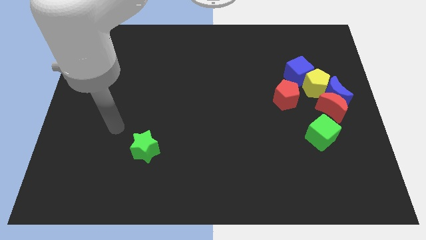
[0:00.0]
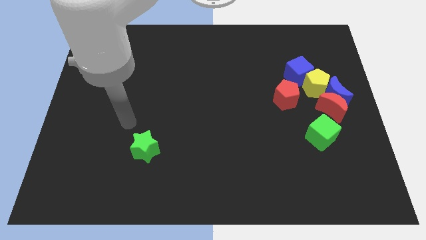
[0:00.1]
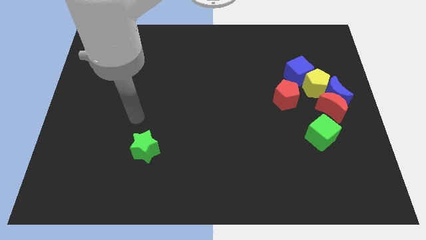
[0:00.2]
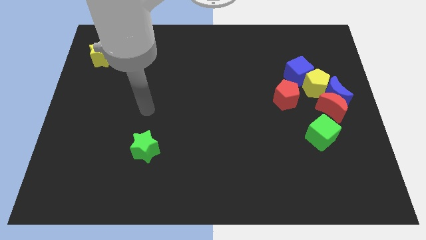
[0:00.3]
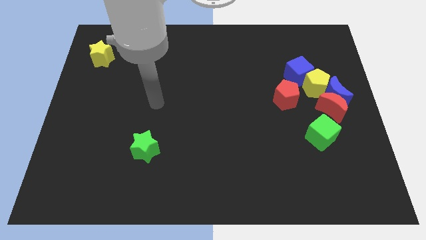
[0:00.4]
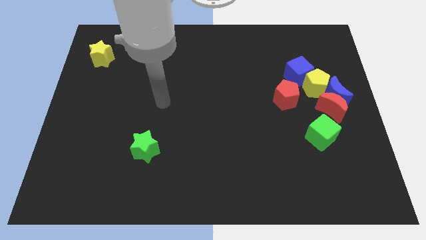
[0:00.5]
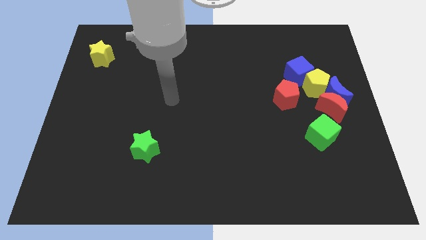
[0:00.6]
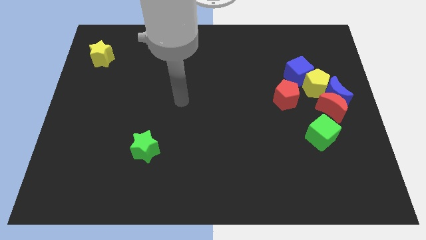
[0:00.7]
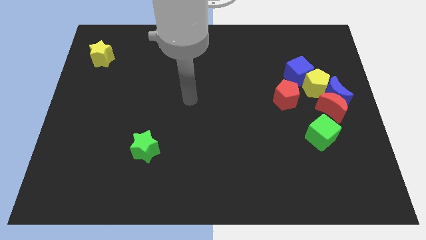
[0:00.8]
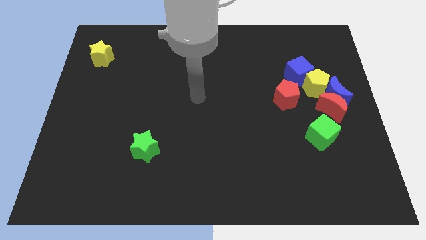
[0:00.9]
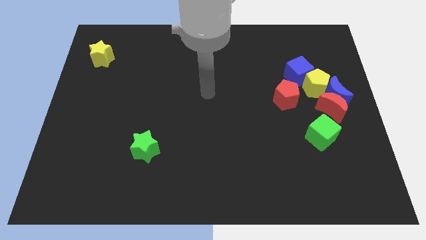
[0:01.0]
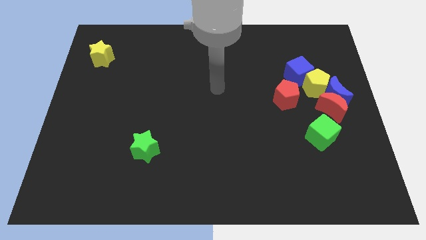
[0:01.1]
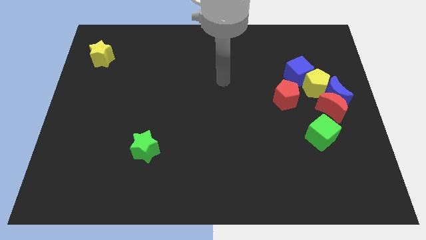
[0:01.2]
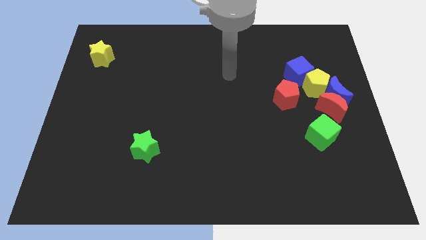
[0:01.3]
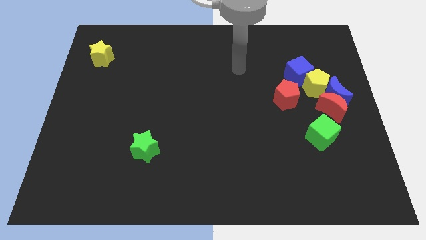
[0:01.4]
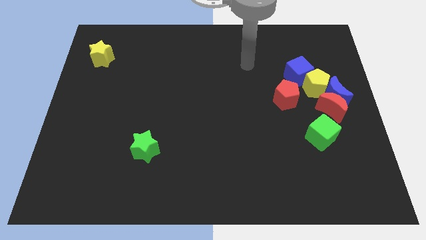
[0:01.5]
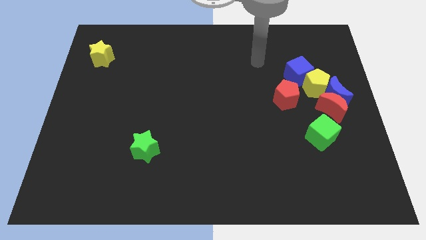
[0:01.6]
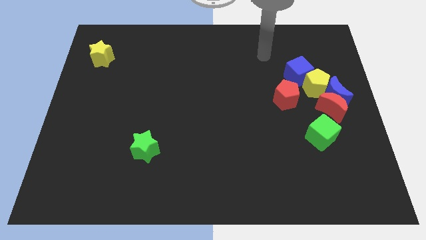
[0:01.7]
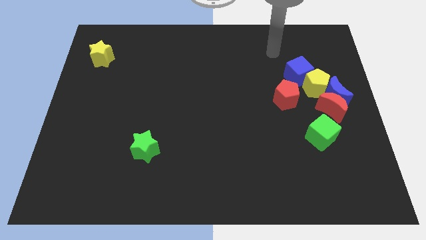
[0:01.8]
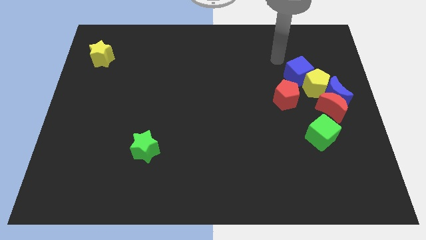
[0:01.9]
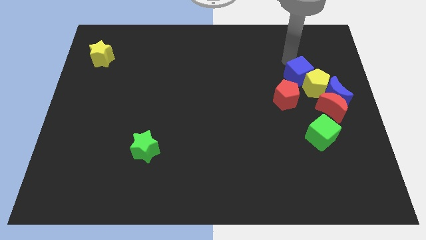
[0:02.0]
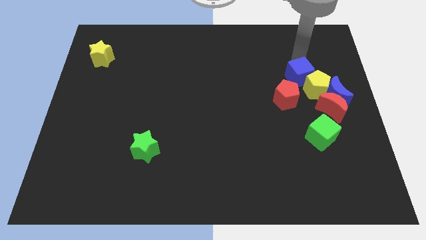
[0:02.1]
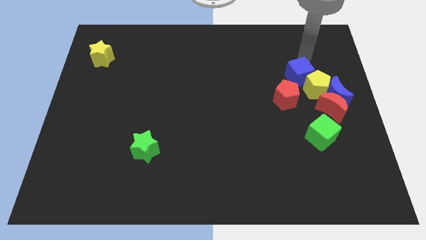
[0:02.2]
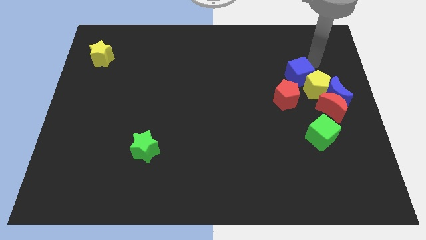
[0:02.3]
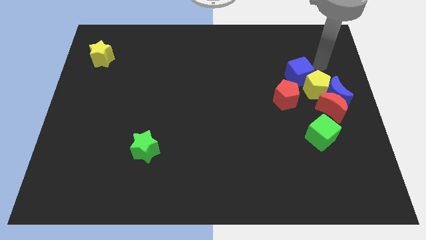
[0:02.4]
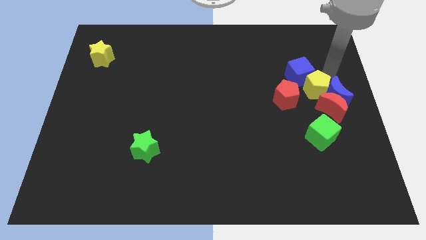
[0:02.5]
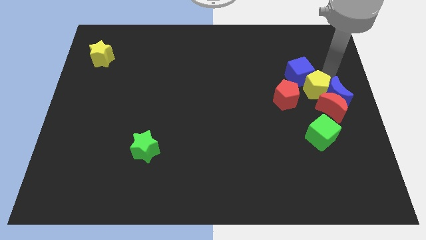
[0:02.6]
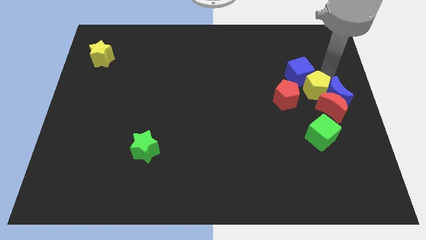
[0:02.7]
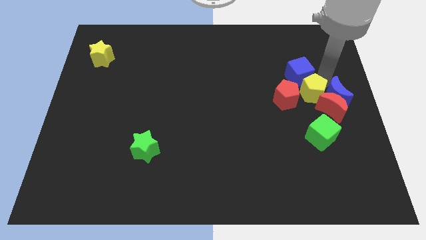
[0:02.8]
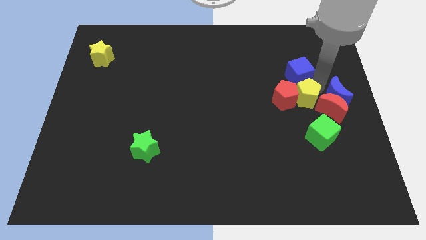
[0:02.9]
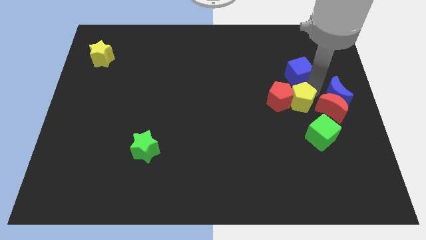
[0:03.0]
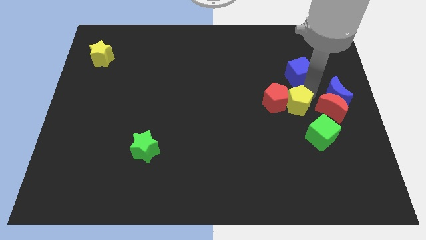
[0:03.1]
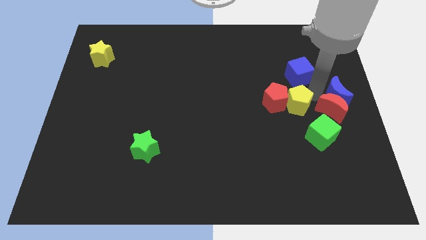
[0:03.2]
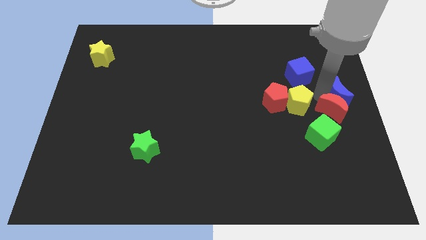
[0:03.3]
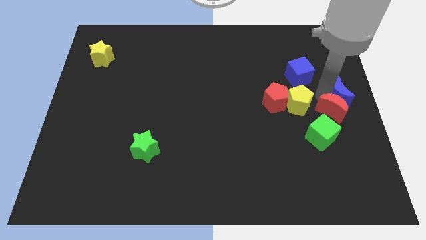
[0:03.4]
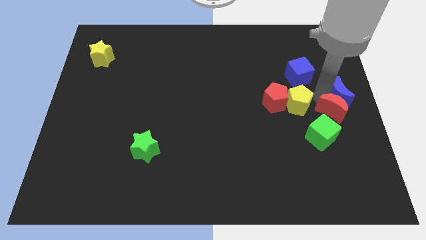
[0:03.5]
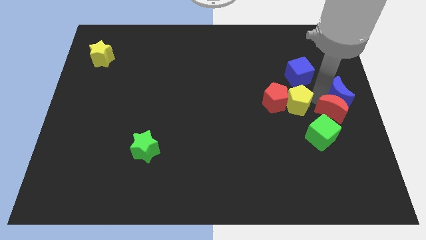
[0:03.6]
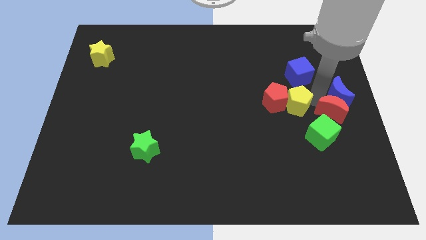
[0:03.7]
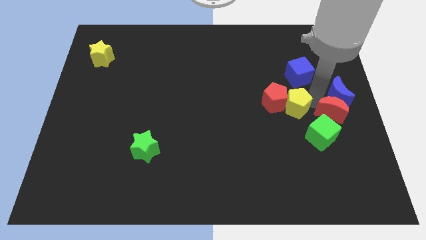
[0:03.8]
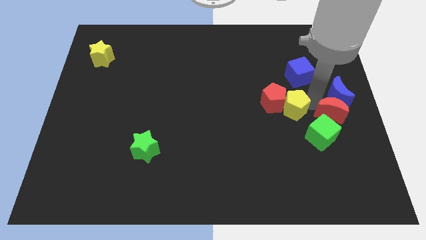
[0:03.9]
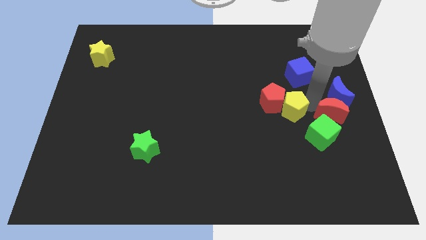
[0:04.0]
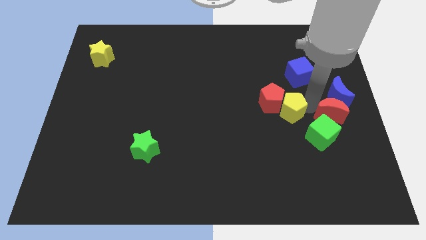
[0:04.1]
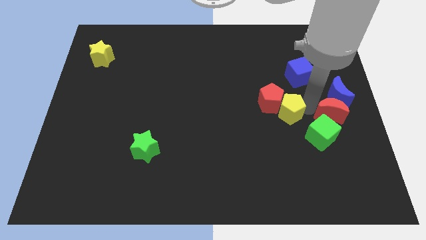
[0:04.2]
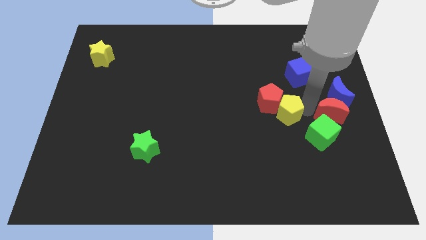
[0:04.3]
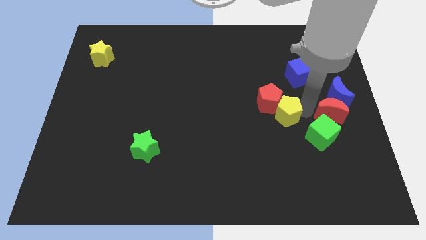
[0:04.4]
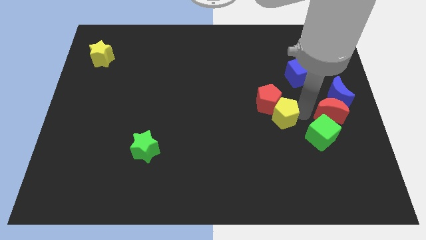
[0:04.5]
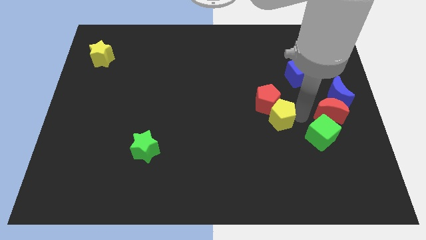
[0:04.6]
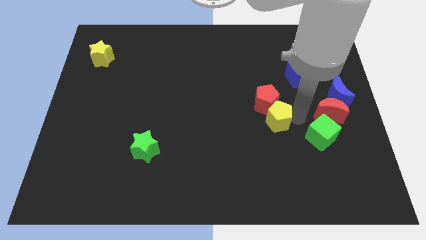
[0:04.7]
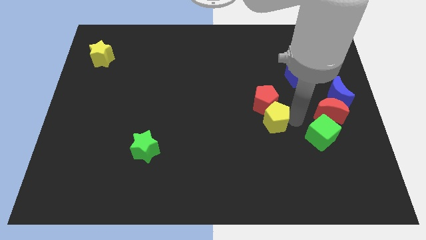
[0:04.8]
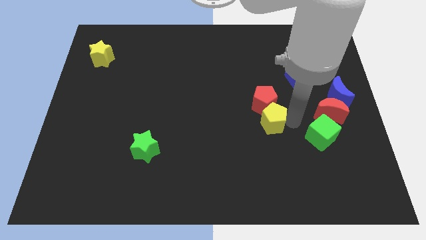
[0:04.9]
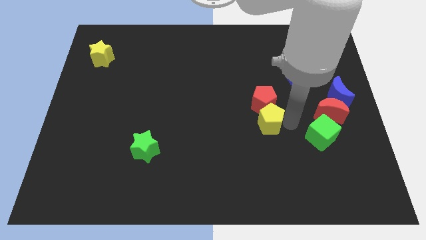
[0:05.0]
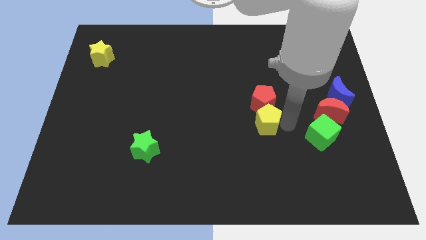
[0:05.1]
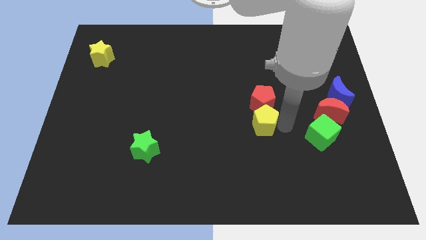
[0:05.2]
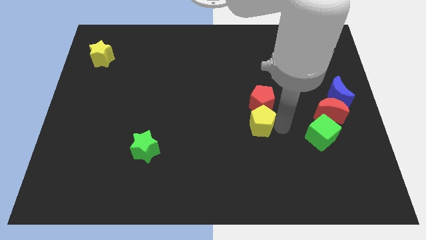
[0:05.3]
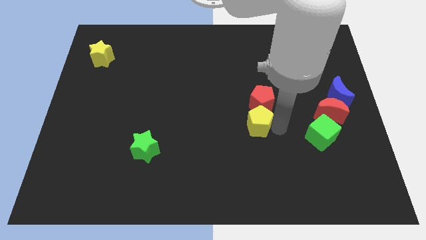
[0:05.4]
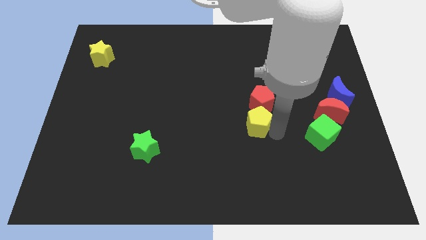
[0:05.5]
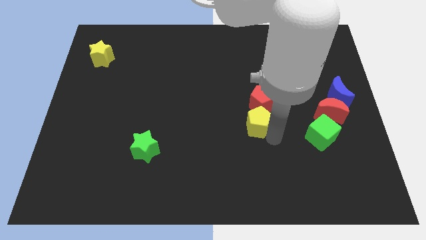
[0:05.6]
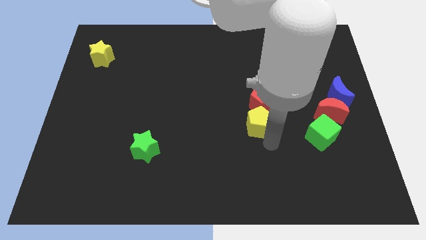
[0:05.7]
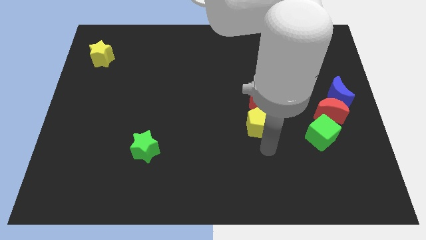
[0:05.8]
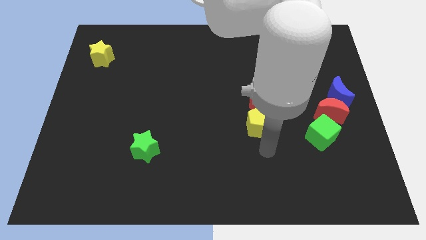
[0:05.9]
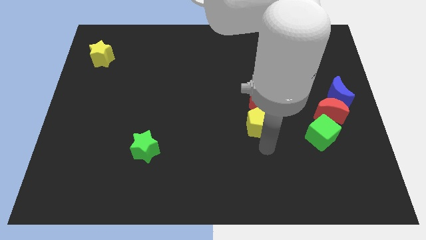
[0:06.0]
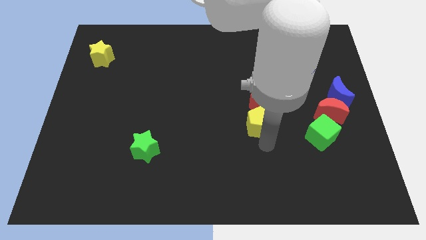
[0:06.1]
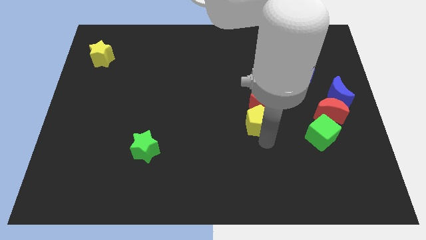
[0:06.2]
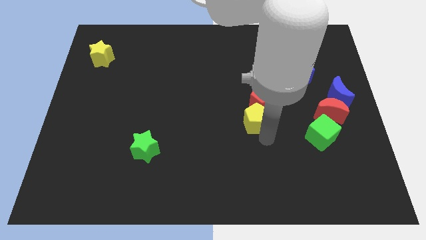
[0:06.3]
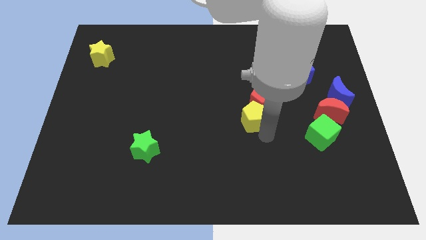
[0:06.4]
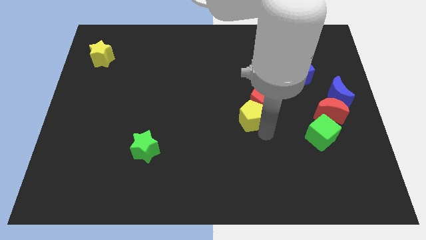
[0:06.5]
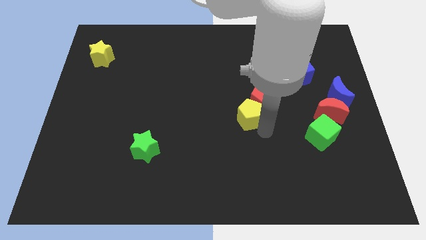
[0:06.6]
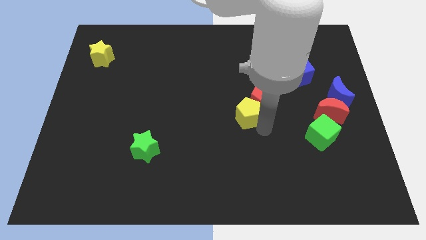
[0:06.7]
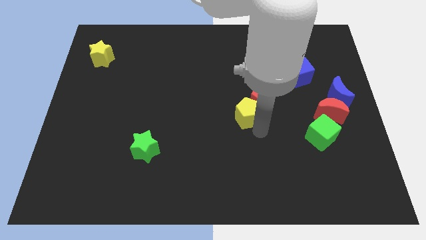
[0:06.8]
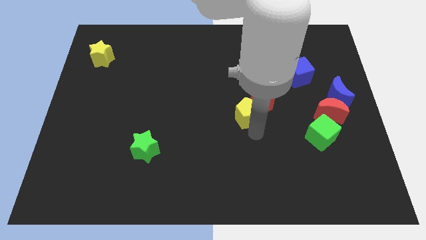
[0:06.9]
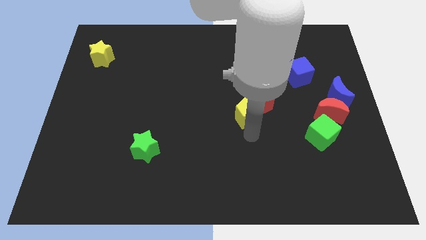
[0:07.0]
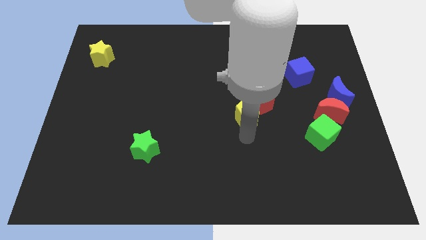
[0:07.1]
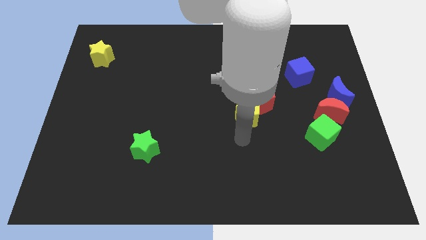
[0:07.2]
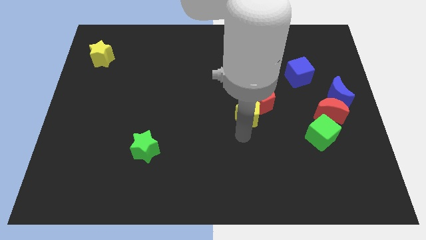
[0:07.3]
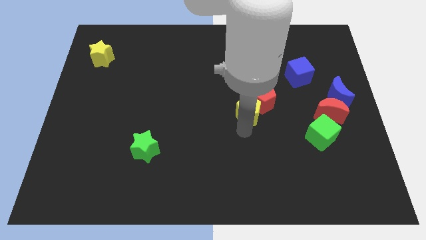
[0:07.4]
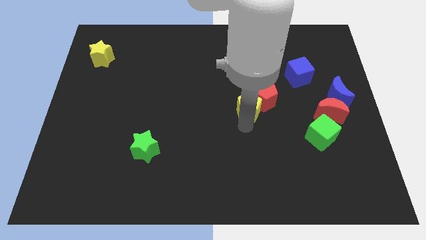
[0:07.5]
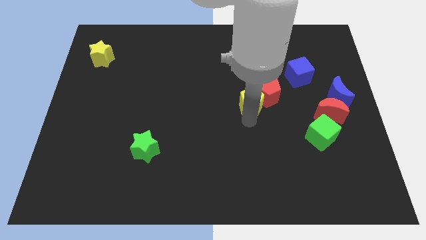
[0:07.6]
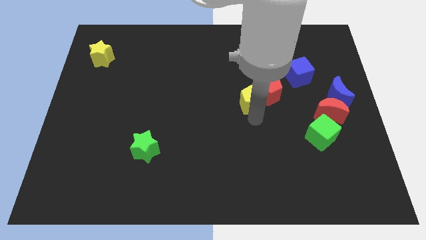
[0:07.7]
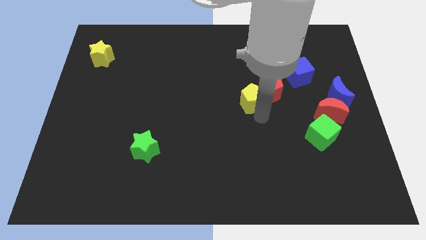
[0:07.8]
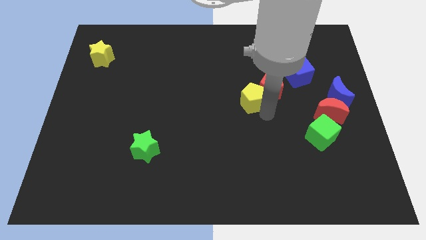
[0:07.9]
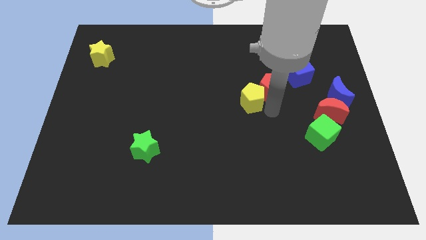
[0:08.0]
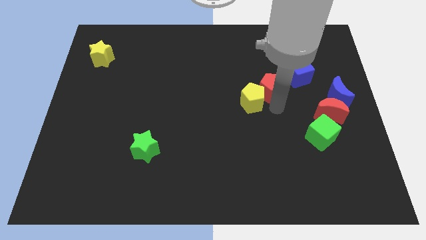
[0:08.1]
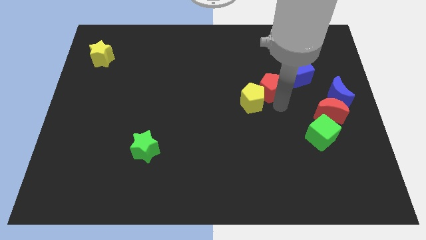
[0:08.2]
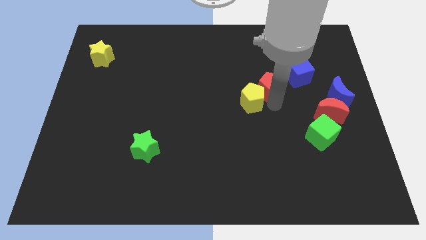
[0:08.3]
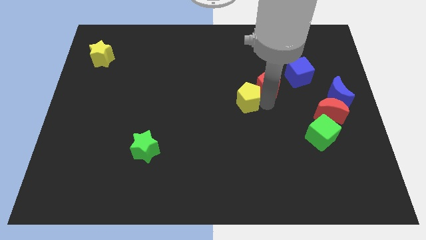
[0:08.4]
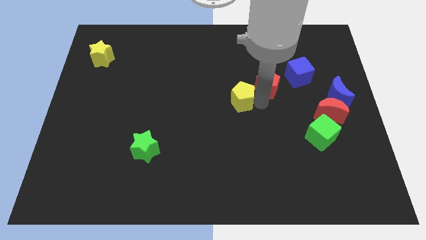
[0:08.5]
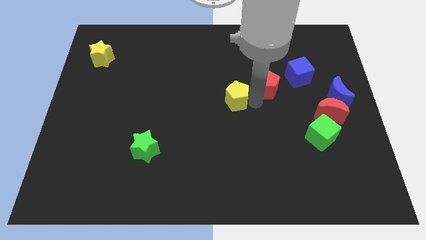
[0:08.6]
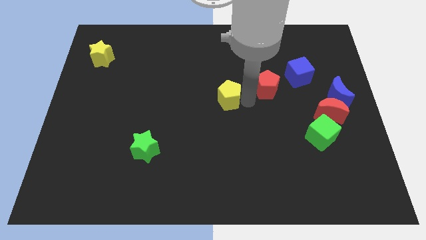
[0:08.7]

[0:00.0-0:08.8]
push the yellow pentagon to the left
